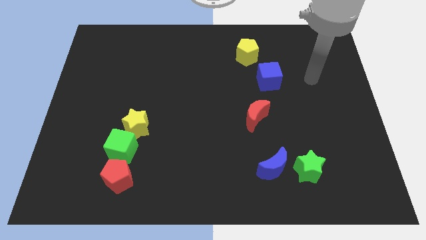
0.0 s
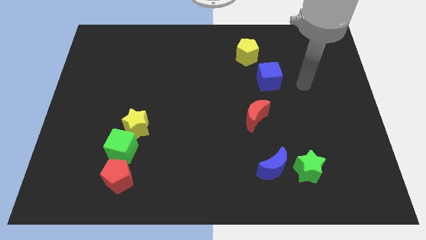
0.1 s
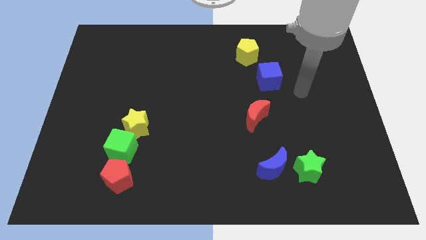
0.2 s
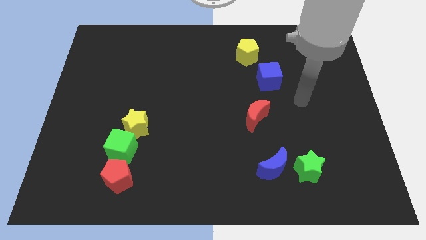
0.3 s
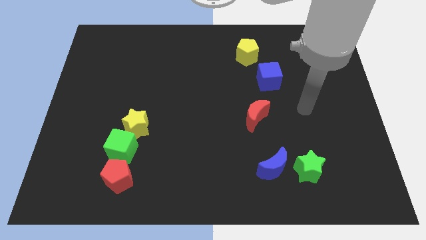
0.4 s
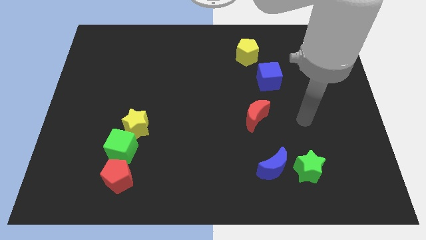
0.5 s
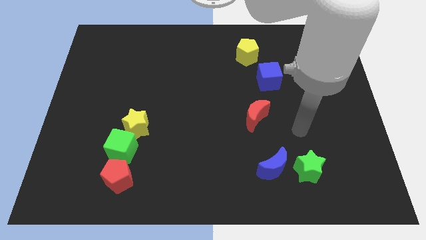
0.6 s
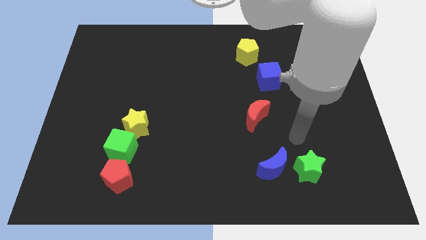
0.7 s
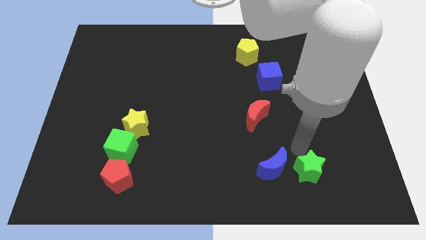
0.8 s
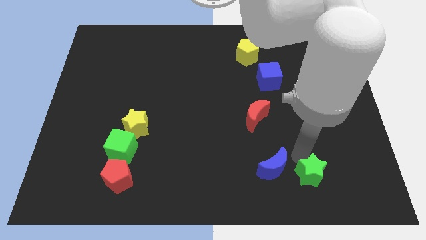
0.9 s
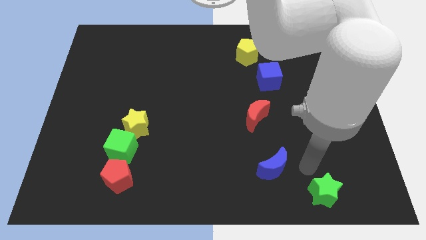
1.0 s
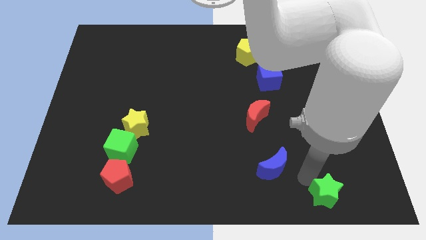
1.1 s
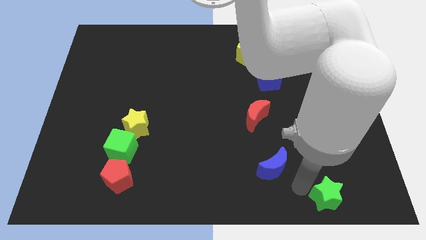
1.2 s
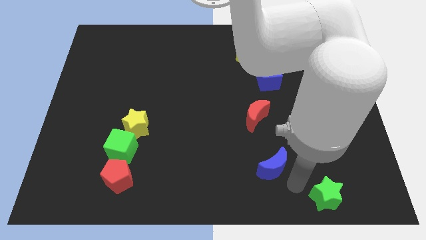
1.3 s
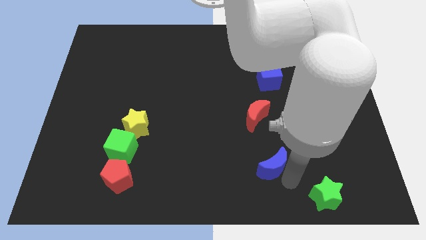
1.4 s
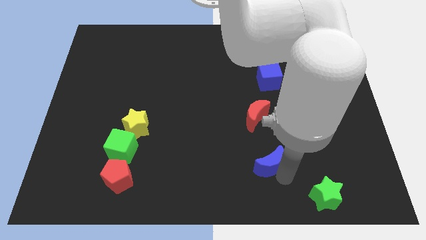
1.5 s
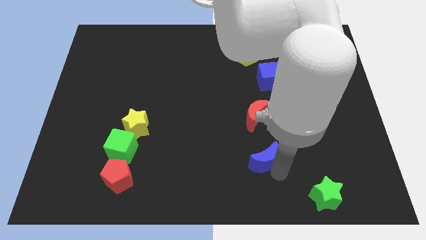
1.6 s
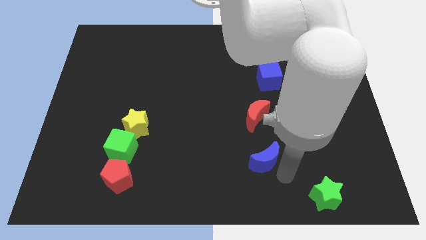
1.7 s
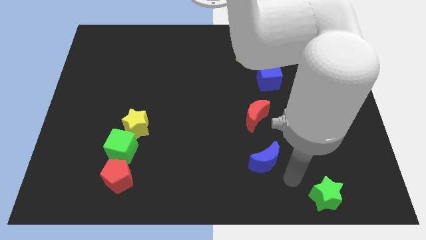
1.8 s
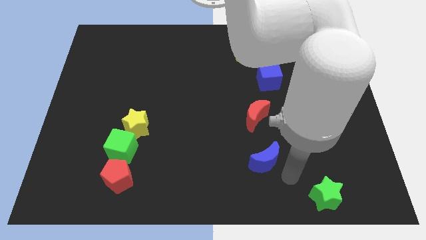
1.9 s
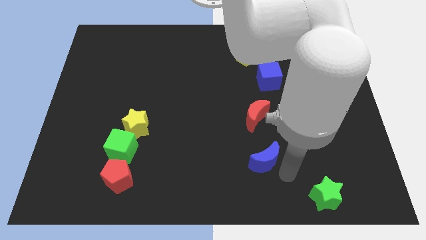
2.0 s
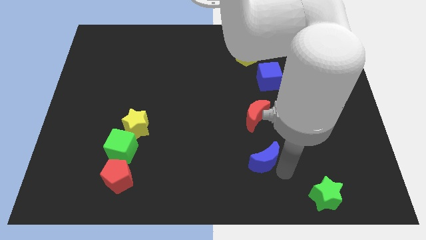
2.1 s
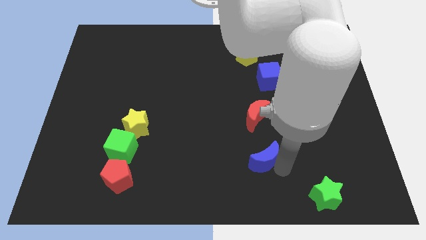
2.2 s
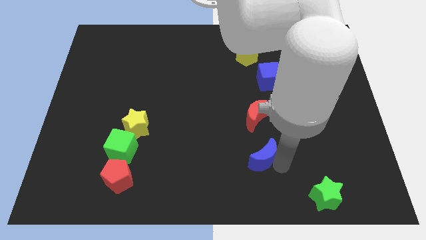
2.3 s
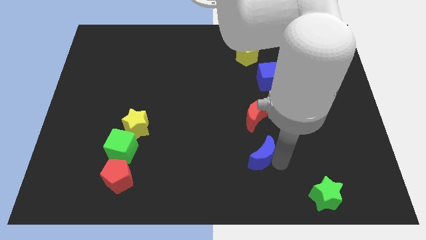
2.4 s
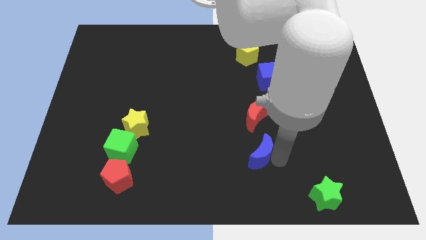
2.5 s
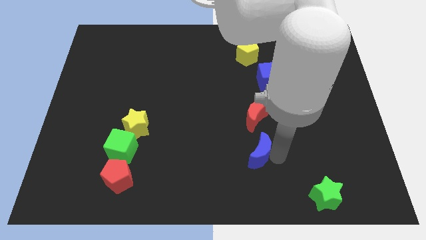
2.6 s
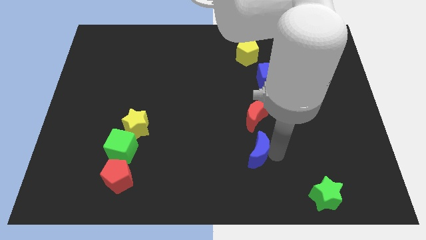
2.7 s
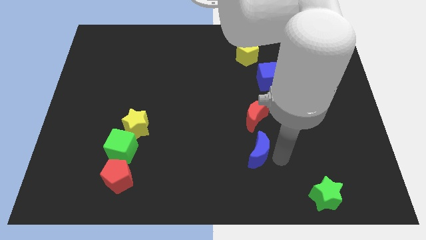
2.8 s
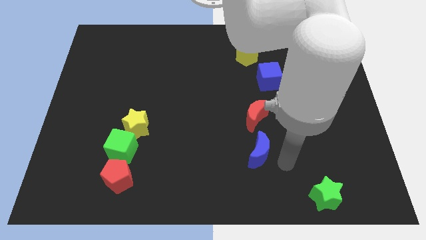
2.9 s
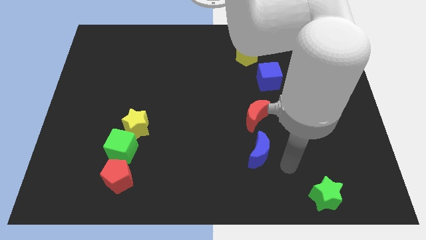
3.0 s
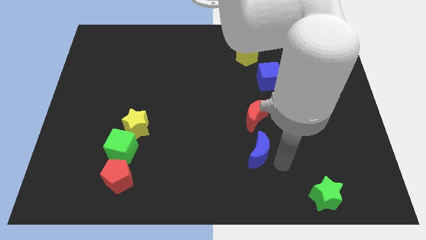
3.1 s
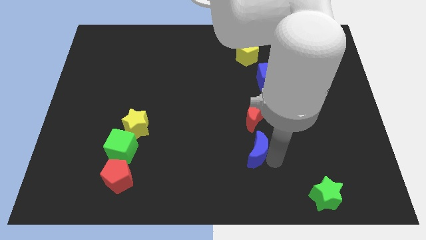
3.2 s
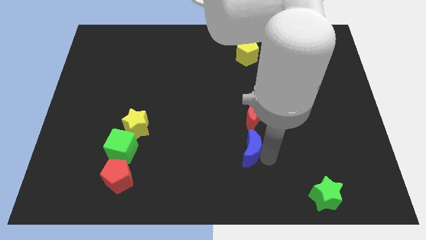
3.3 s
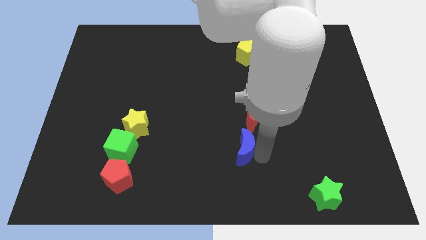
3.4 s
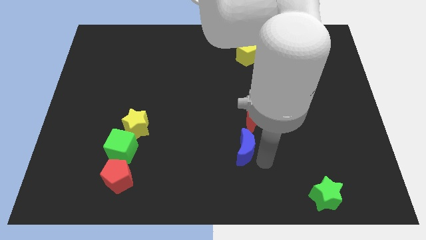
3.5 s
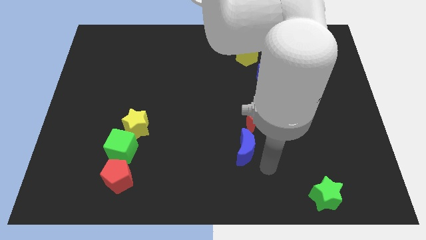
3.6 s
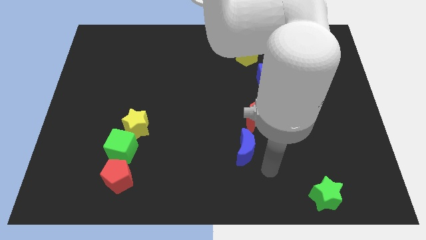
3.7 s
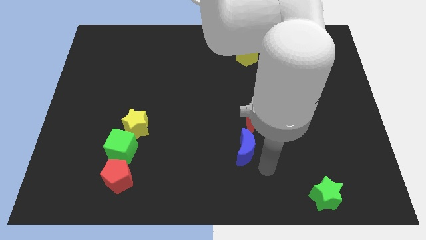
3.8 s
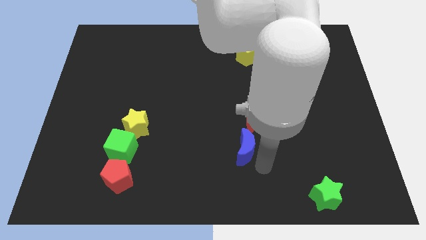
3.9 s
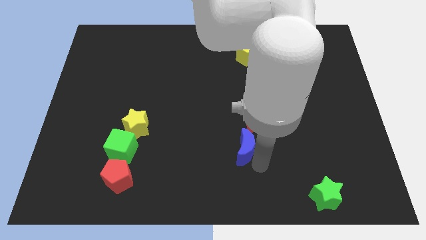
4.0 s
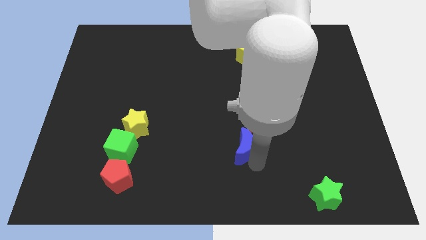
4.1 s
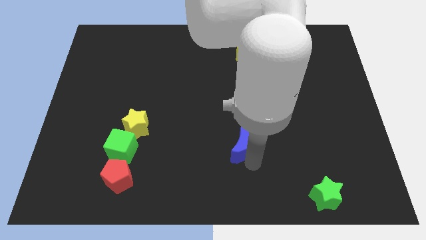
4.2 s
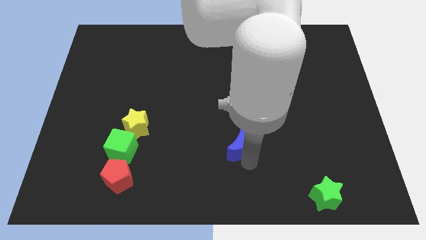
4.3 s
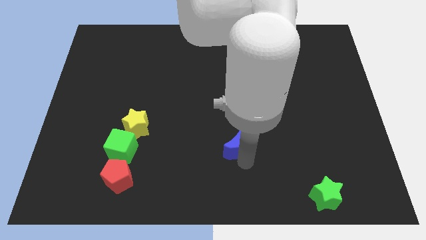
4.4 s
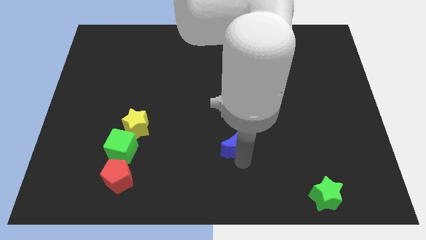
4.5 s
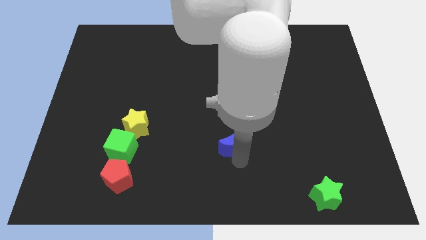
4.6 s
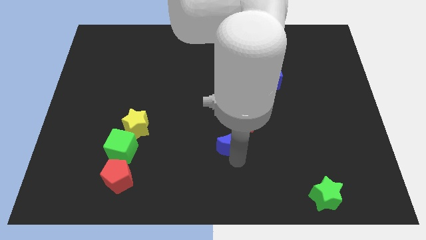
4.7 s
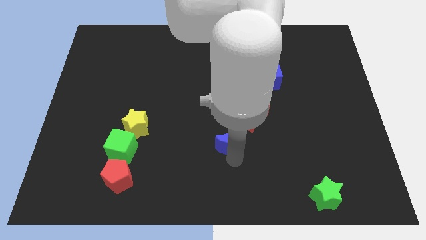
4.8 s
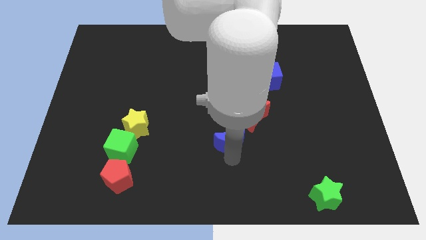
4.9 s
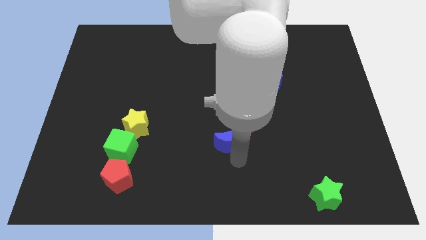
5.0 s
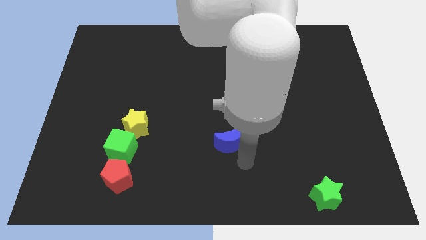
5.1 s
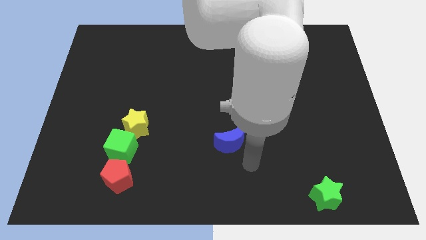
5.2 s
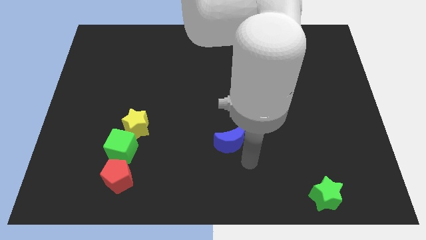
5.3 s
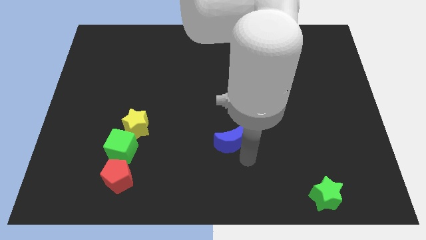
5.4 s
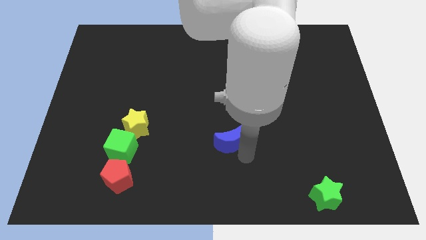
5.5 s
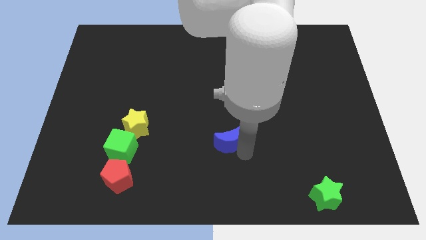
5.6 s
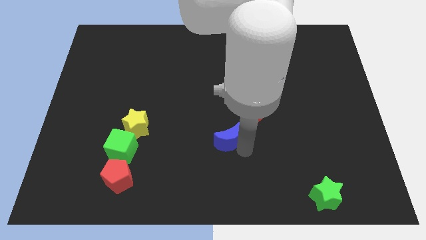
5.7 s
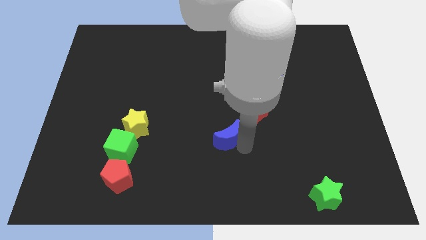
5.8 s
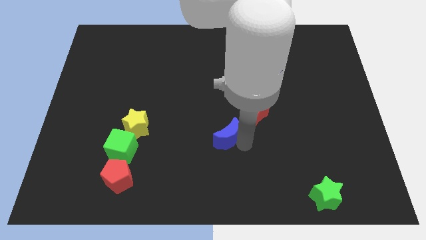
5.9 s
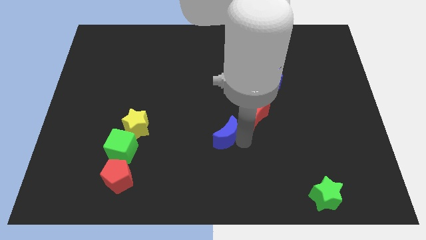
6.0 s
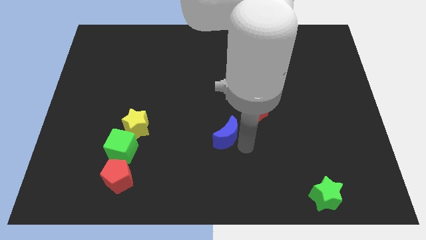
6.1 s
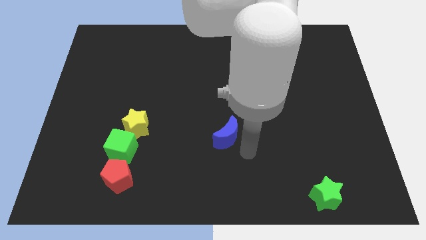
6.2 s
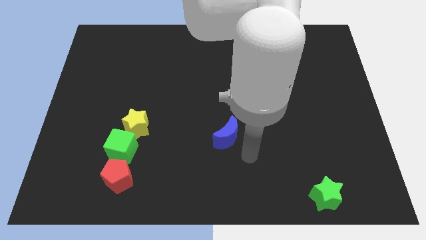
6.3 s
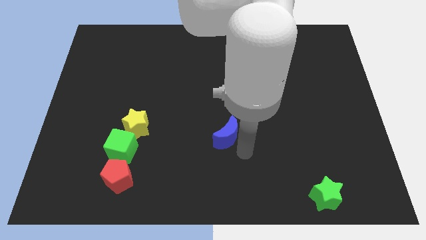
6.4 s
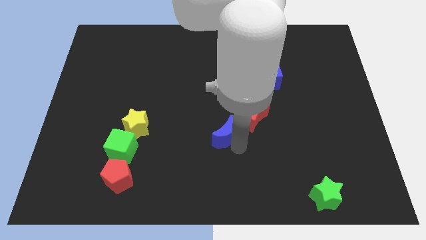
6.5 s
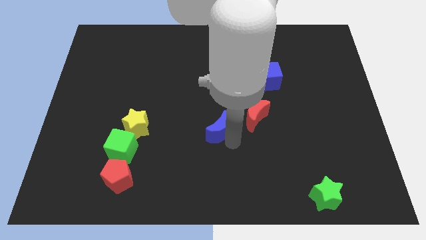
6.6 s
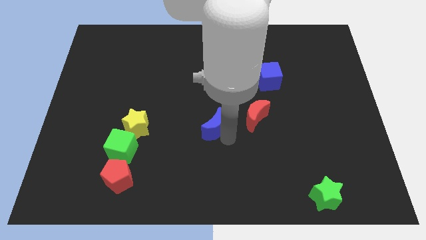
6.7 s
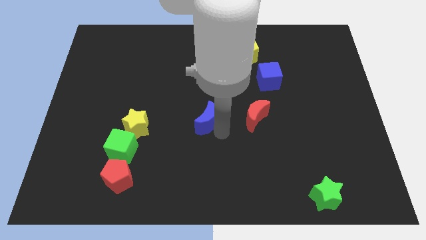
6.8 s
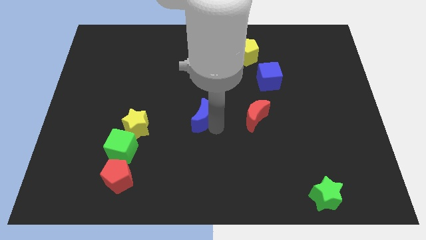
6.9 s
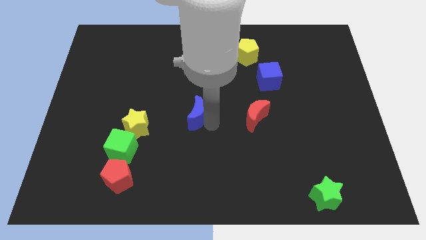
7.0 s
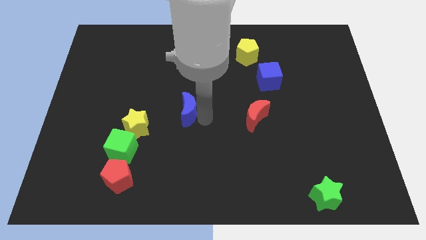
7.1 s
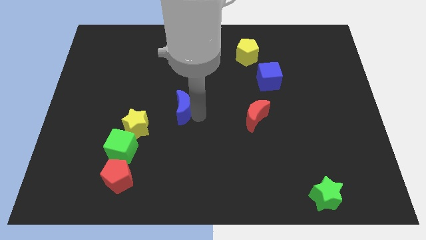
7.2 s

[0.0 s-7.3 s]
move the blue moon diagonally up and to the right of the yellow star
